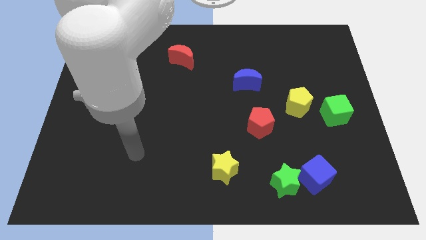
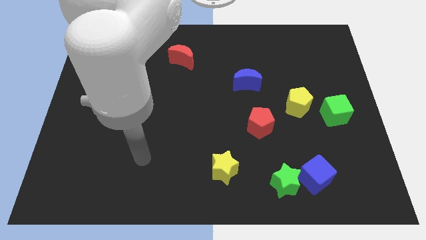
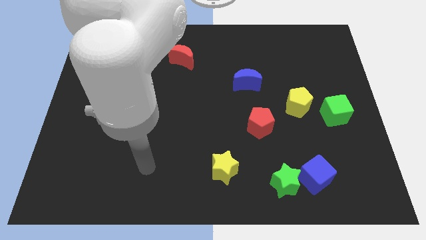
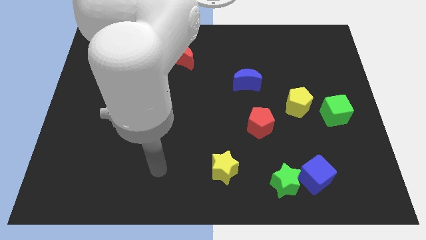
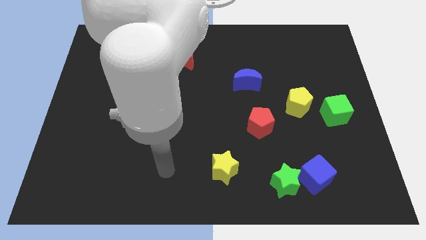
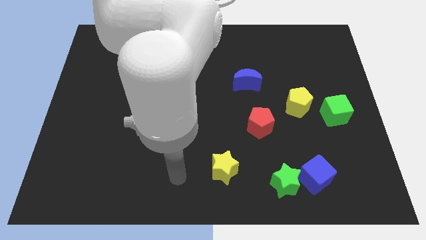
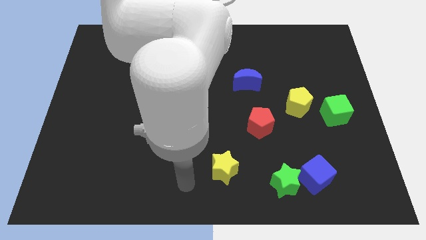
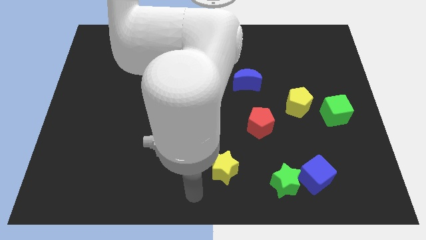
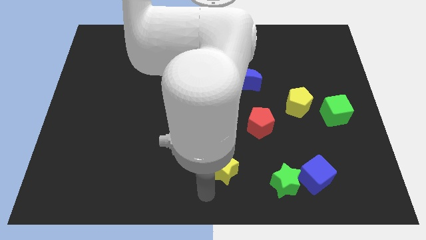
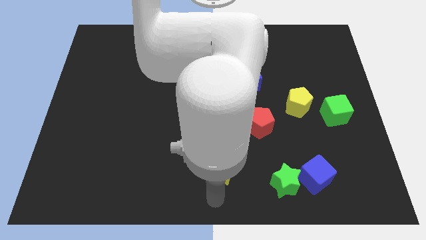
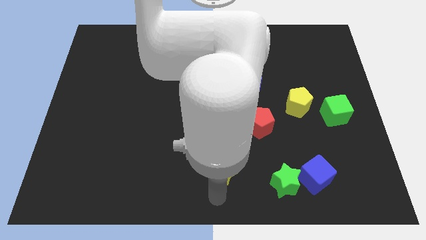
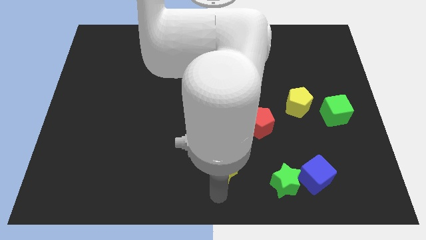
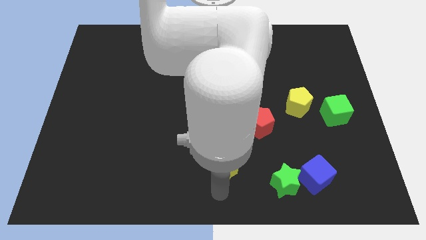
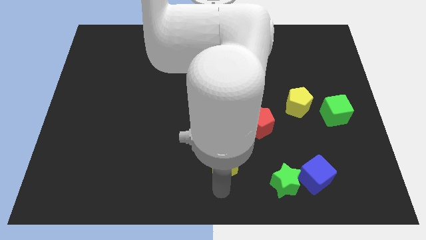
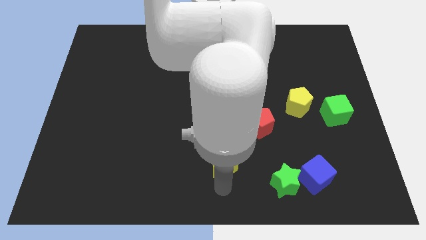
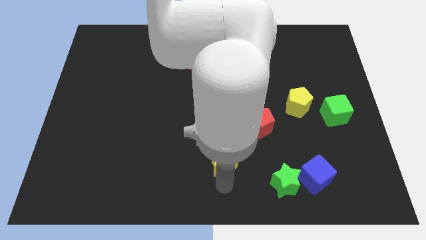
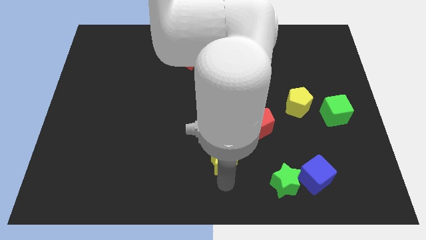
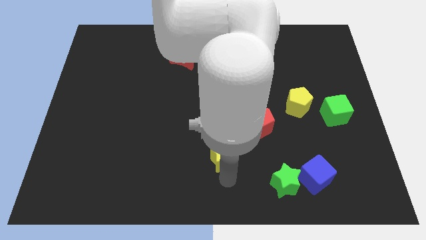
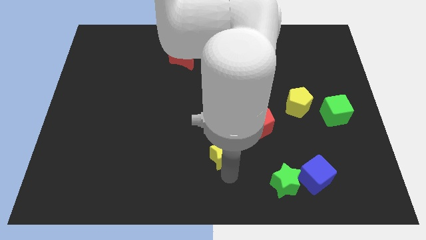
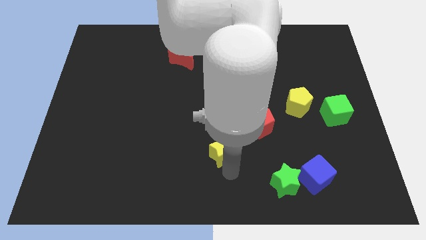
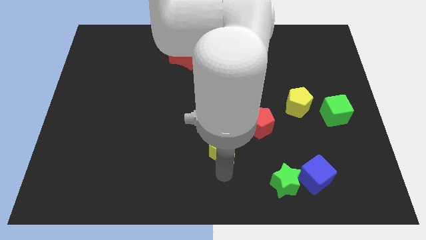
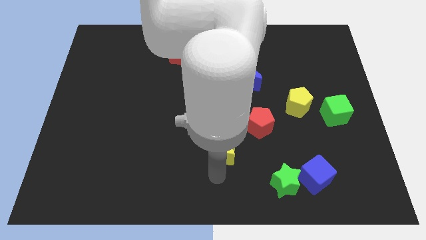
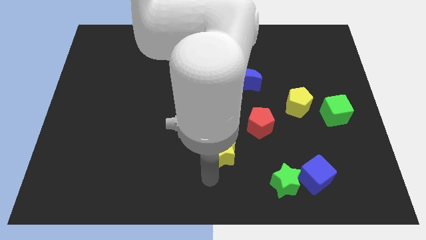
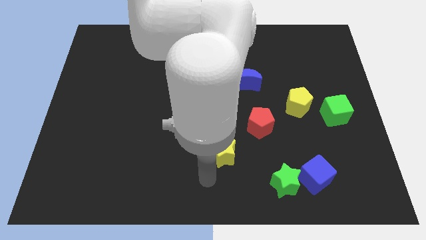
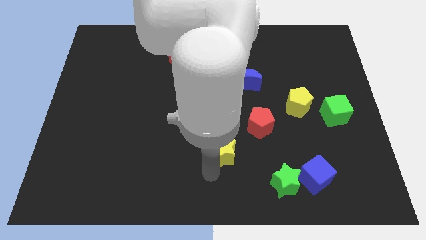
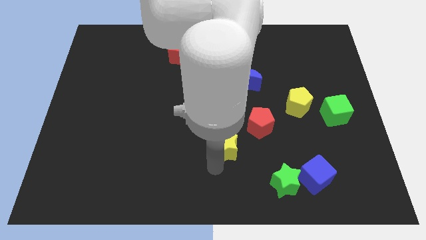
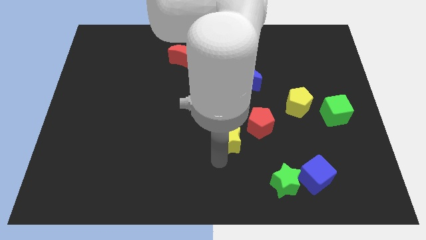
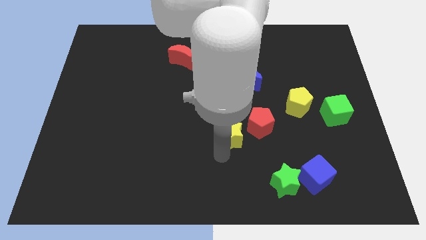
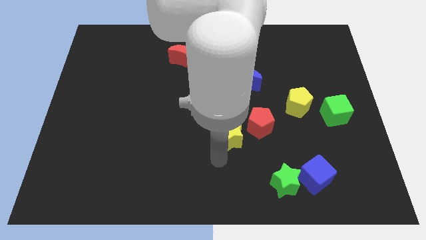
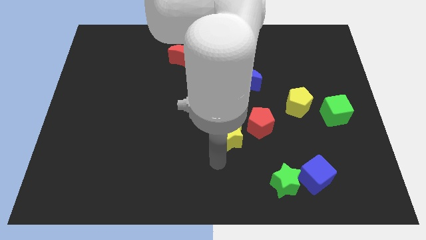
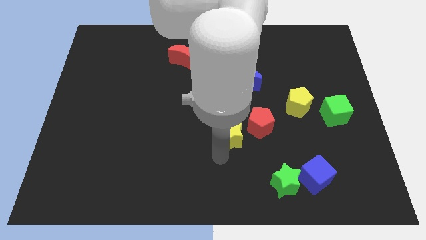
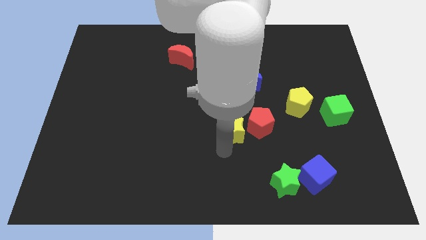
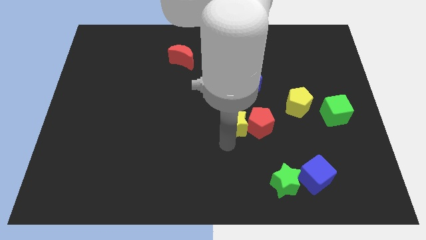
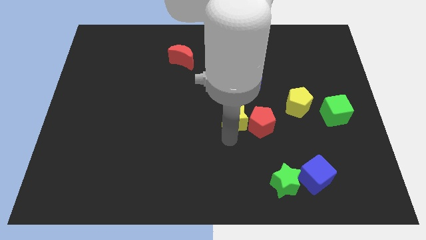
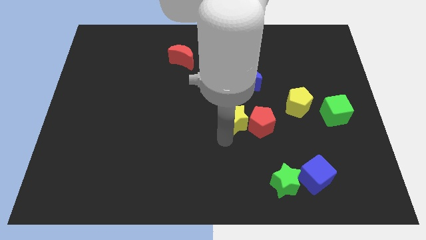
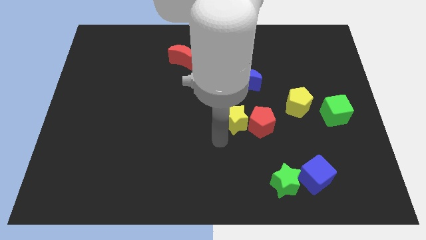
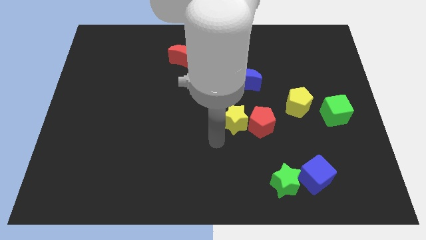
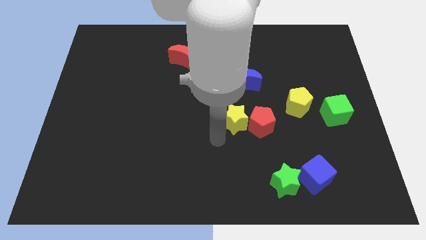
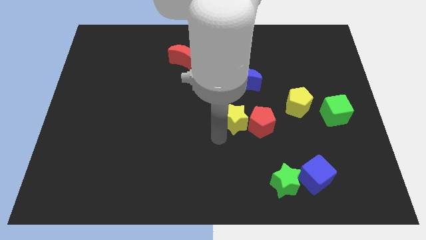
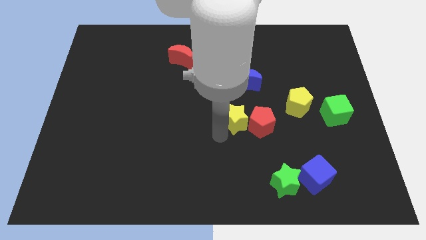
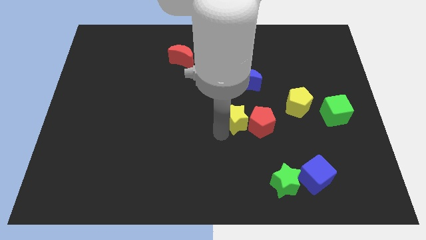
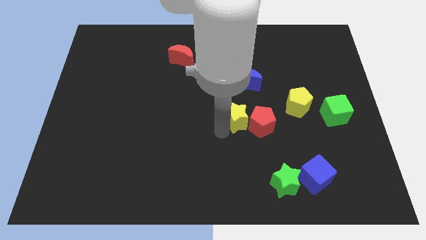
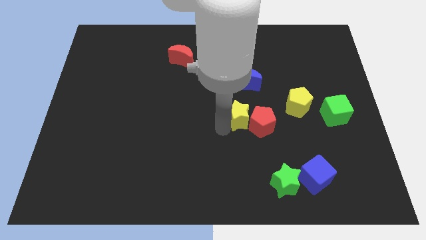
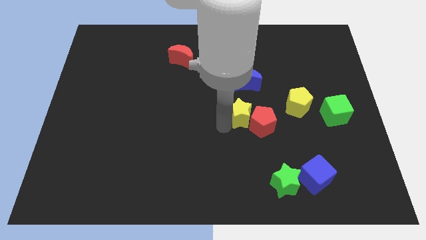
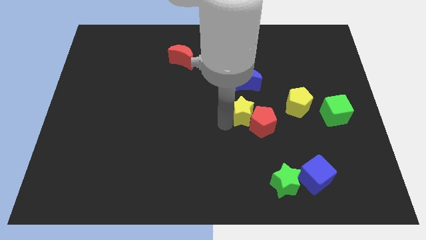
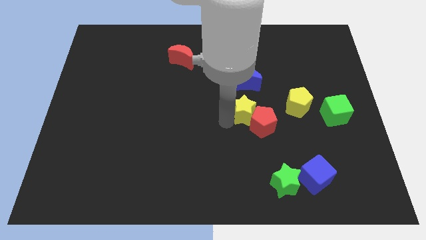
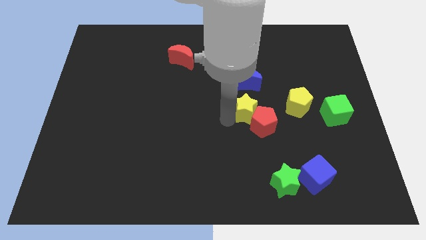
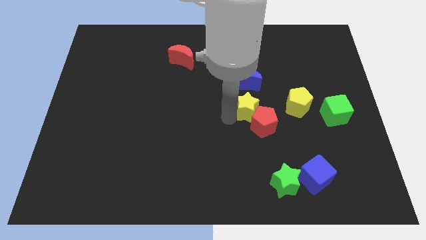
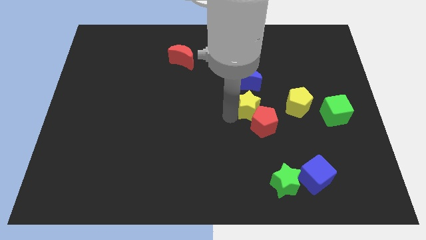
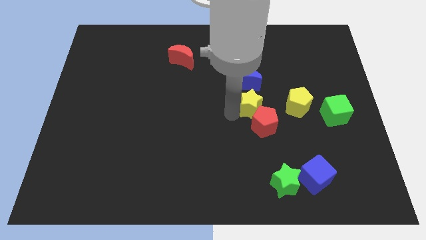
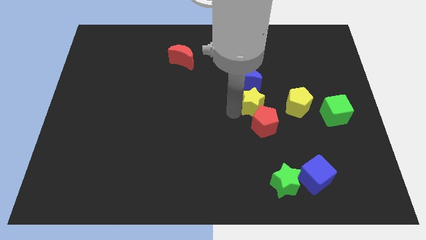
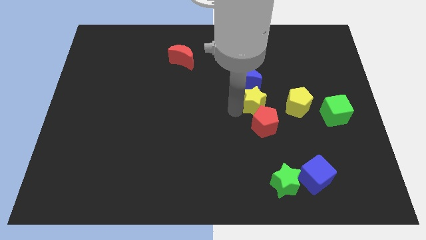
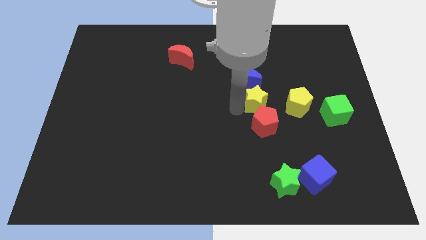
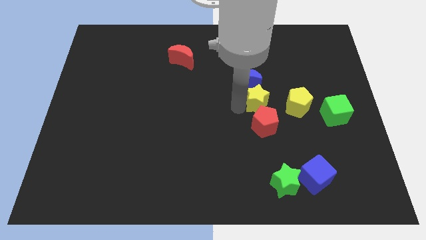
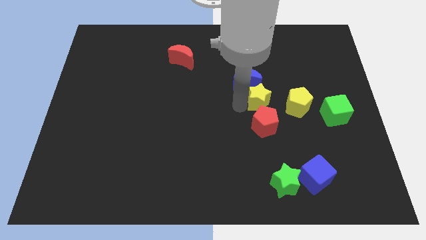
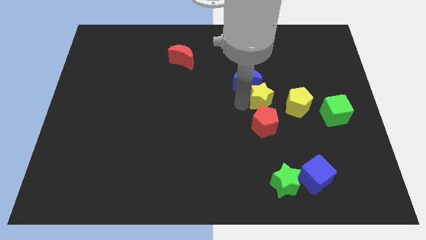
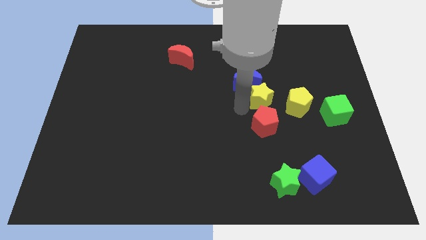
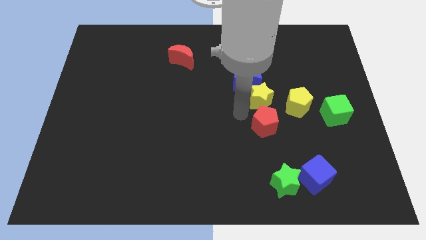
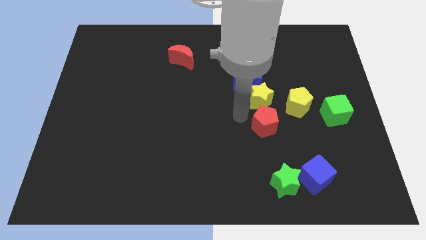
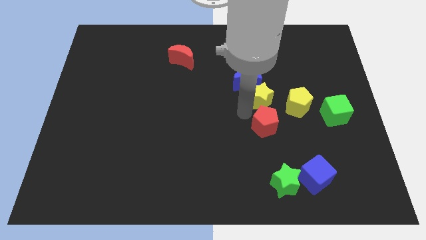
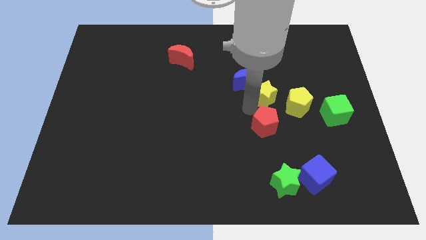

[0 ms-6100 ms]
slide the yellow star diagonally up and to the left of the yellow pentagon
